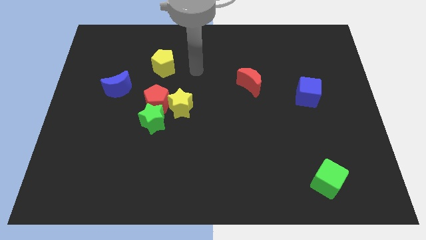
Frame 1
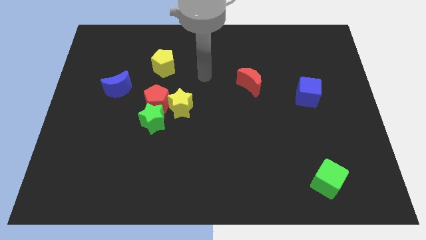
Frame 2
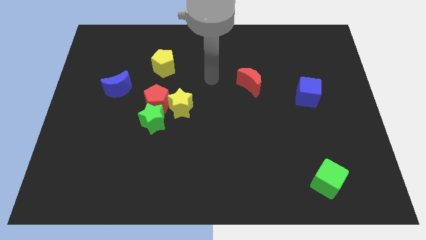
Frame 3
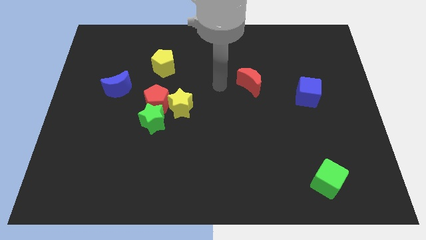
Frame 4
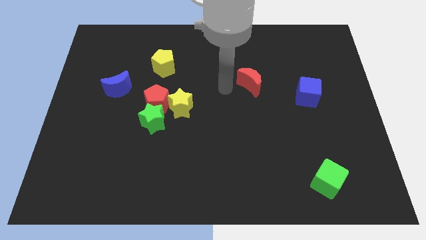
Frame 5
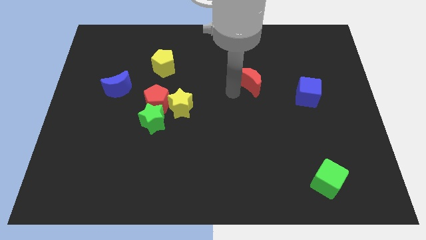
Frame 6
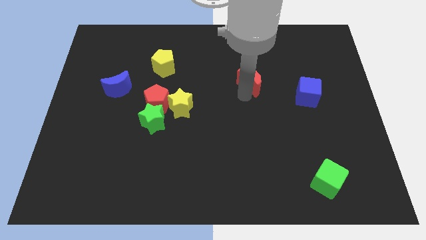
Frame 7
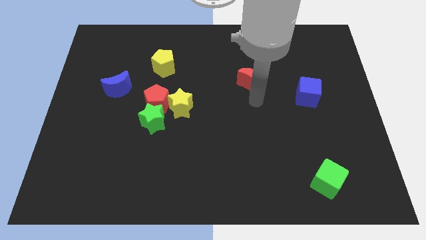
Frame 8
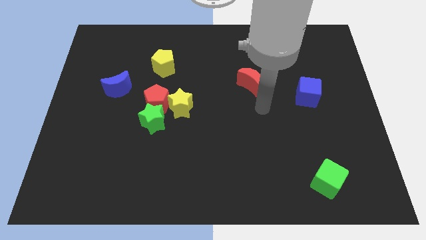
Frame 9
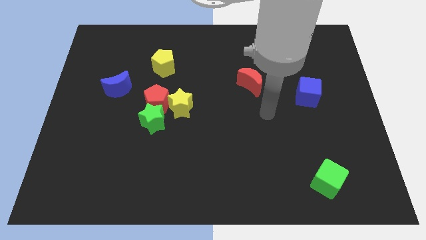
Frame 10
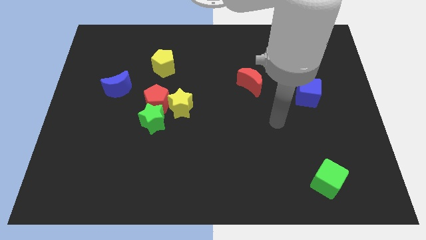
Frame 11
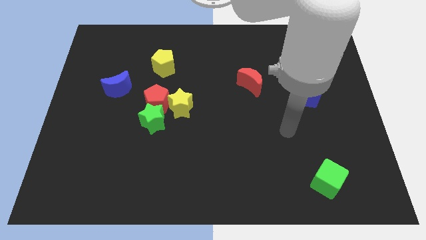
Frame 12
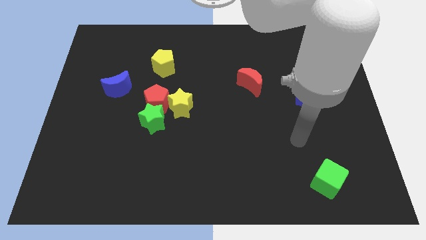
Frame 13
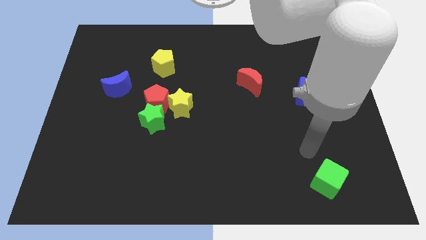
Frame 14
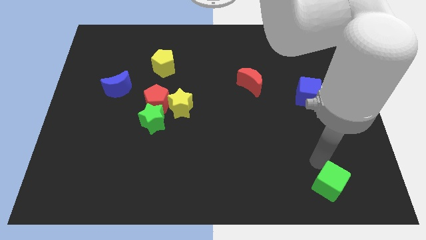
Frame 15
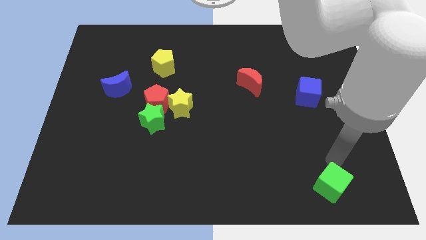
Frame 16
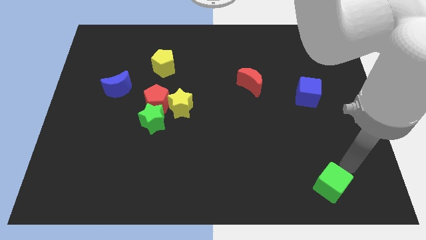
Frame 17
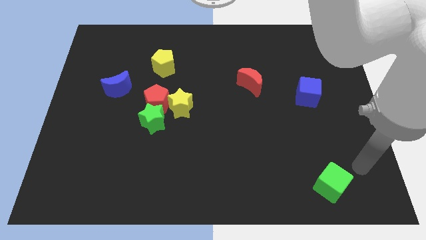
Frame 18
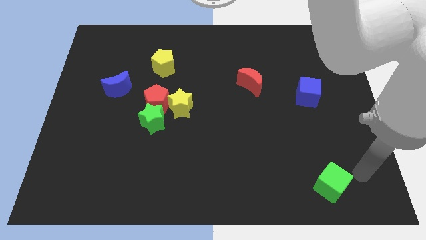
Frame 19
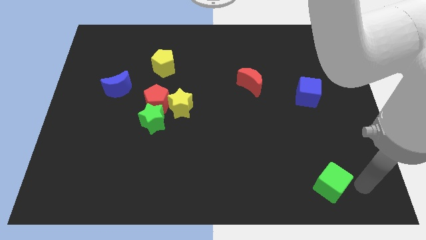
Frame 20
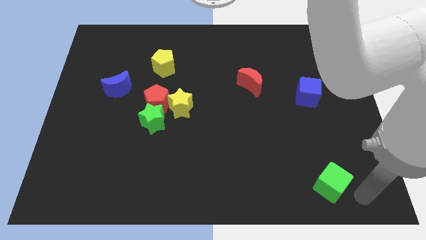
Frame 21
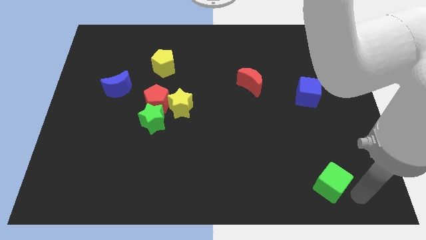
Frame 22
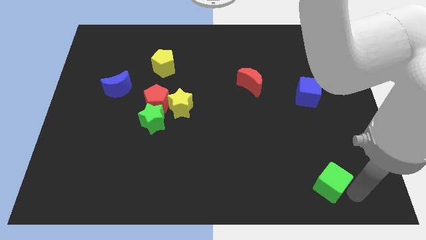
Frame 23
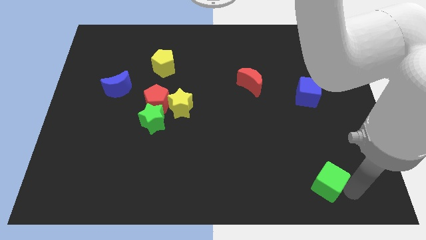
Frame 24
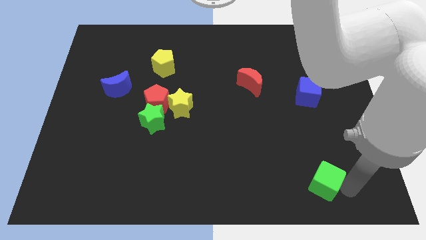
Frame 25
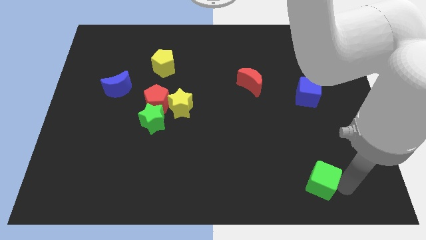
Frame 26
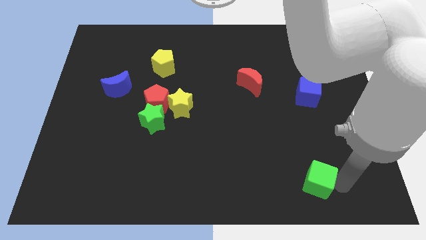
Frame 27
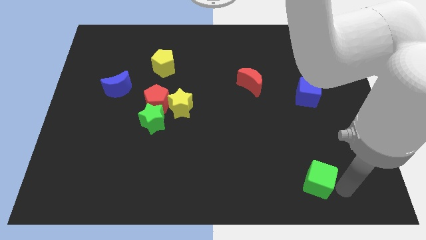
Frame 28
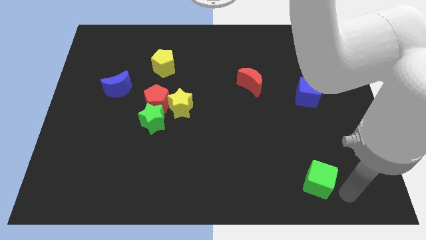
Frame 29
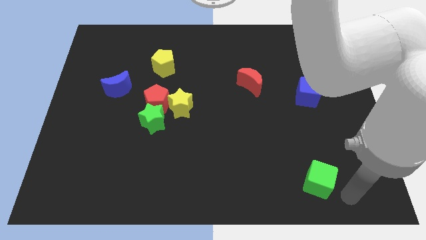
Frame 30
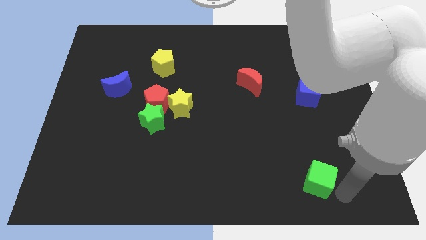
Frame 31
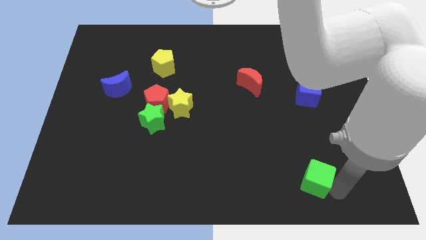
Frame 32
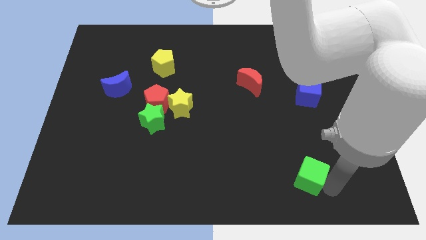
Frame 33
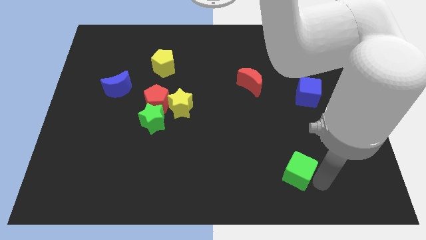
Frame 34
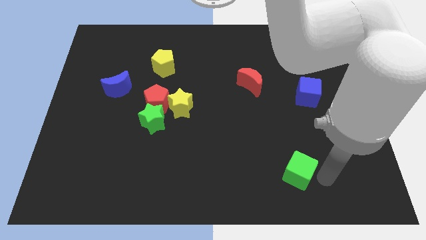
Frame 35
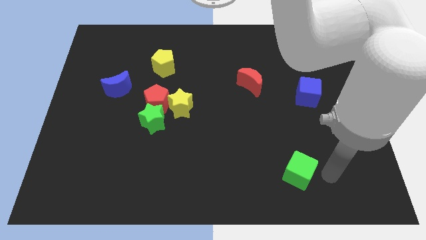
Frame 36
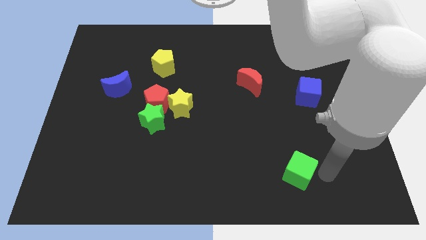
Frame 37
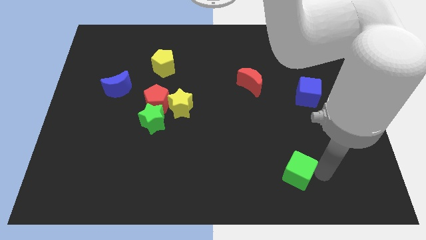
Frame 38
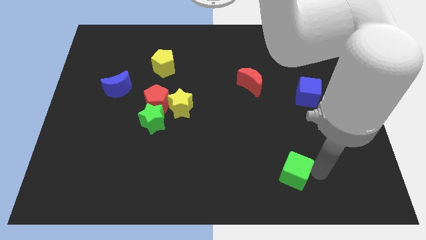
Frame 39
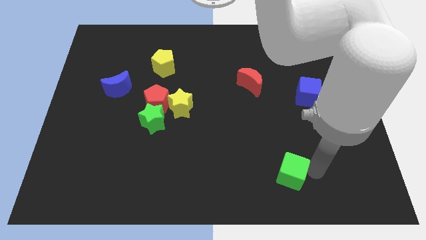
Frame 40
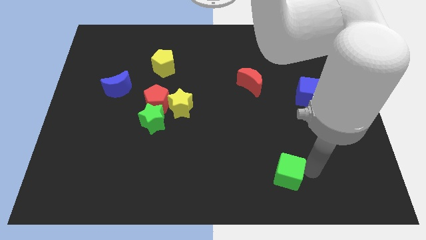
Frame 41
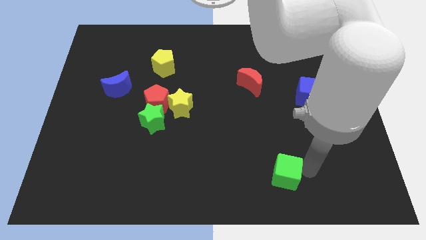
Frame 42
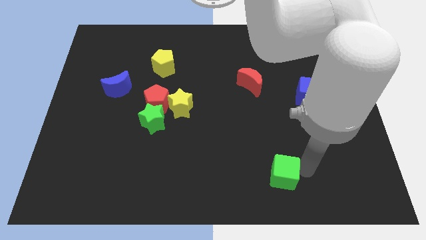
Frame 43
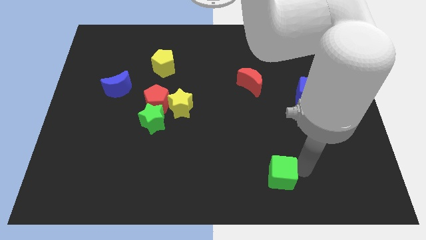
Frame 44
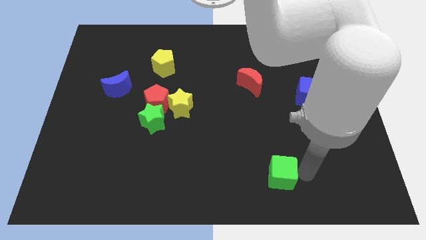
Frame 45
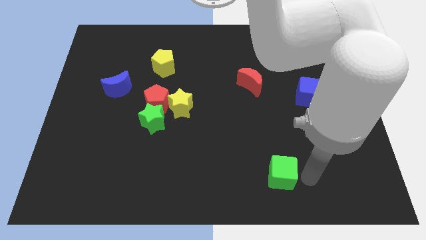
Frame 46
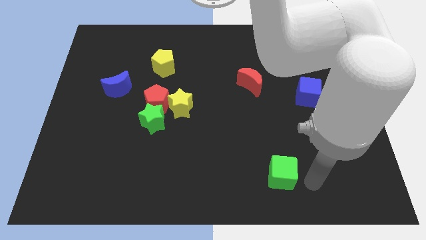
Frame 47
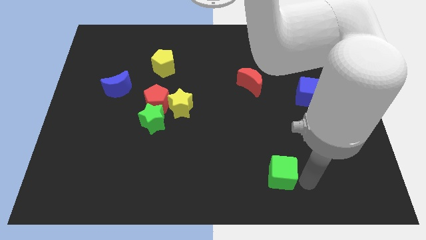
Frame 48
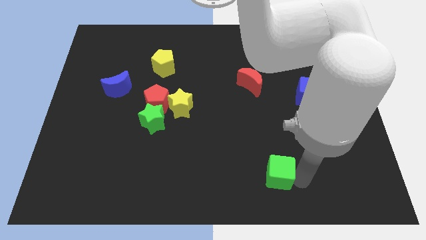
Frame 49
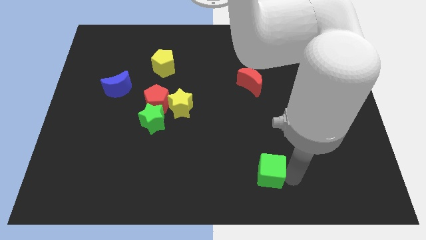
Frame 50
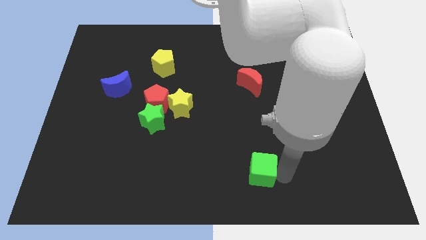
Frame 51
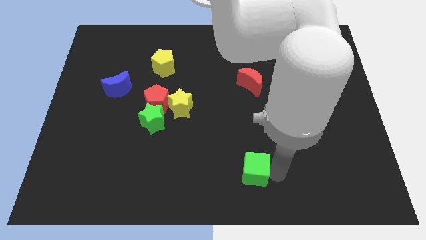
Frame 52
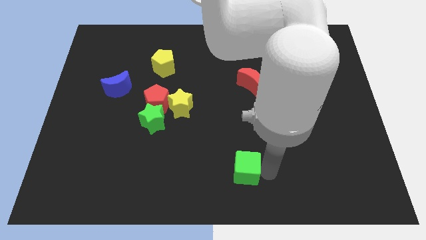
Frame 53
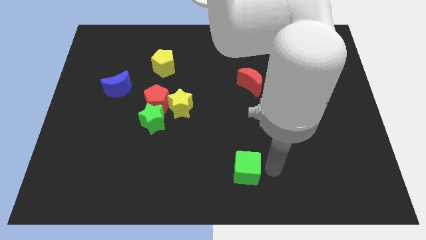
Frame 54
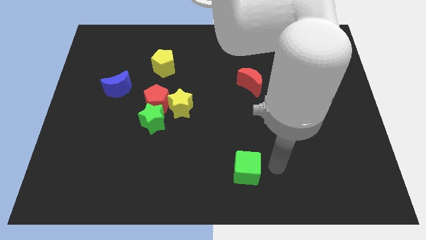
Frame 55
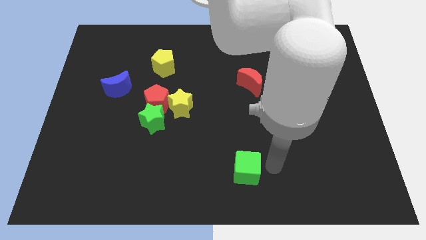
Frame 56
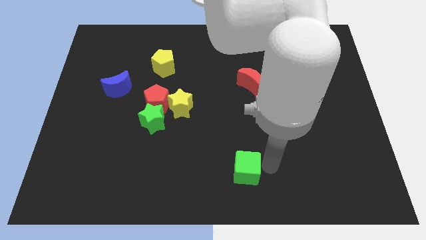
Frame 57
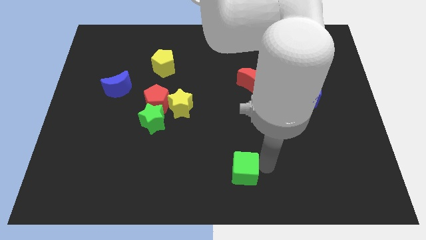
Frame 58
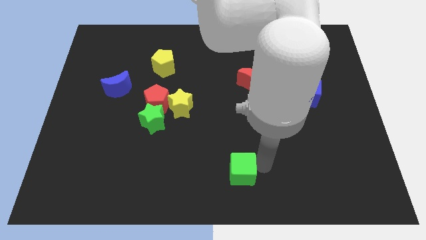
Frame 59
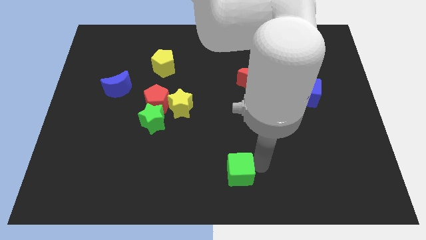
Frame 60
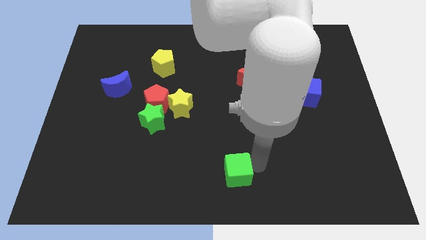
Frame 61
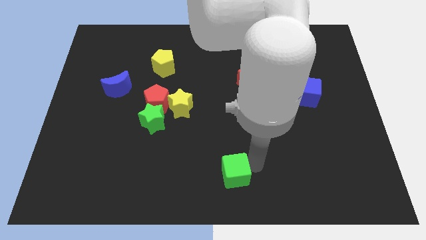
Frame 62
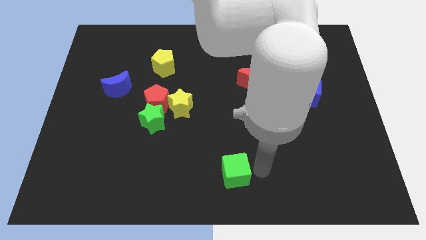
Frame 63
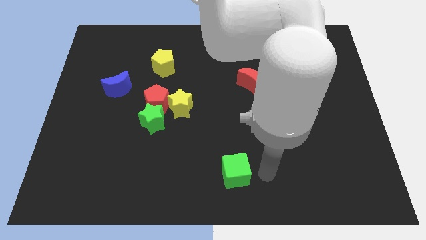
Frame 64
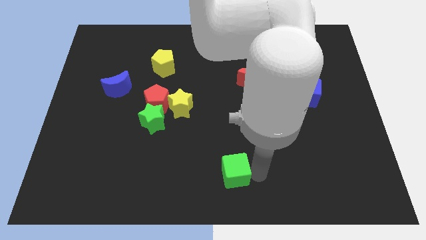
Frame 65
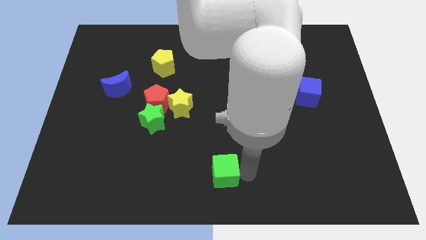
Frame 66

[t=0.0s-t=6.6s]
slide the green cube to the left

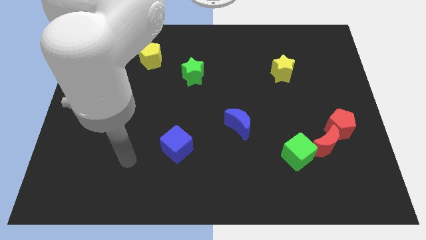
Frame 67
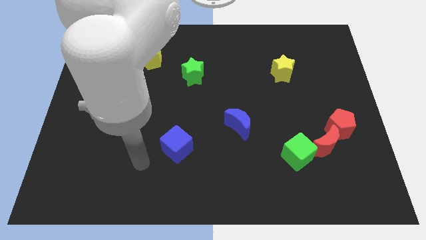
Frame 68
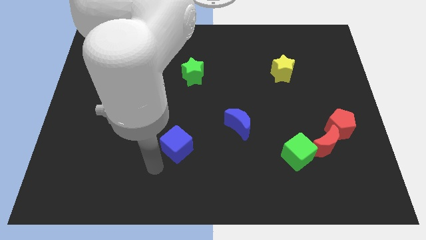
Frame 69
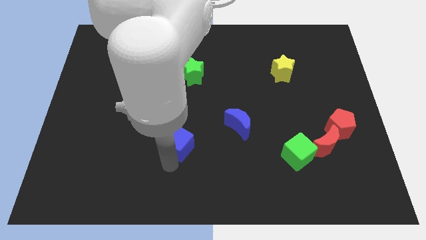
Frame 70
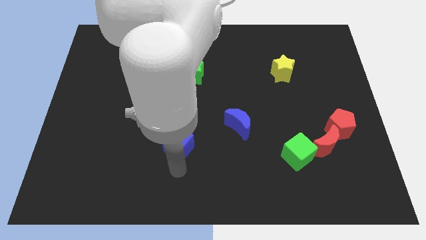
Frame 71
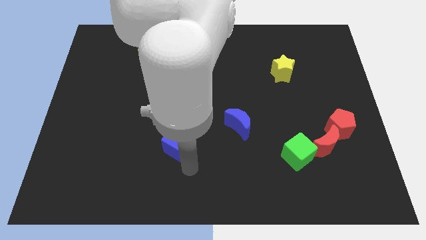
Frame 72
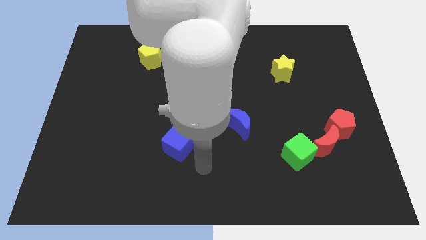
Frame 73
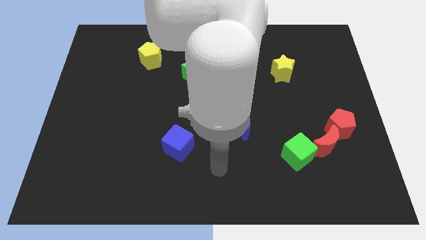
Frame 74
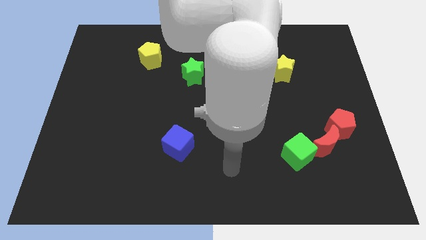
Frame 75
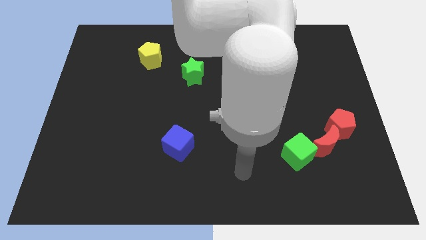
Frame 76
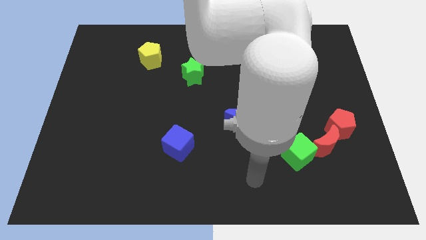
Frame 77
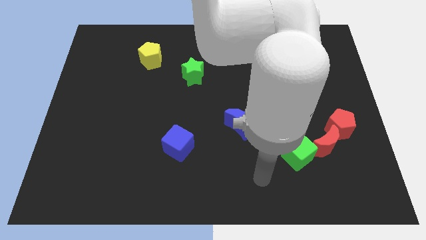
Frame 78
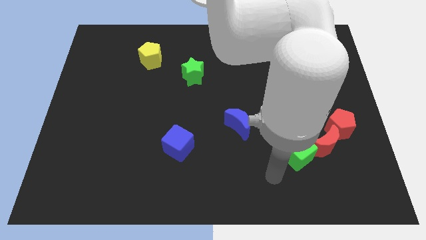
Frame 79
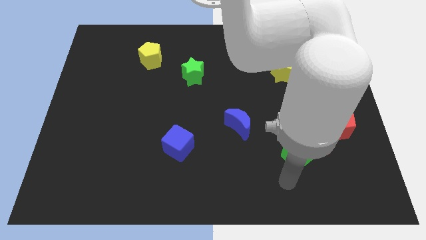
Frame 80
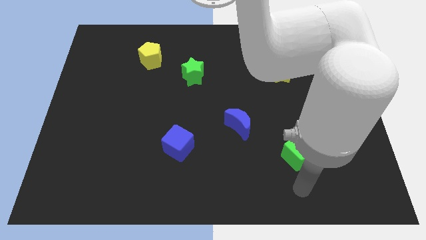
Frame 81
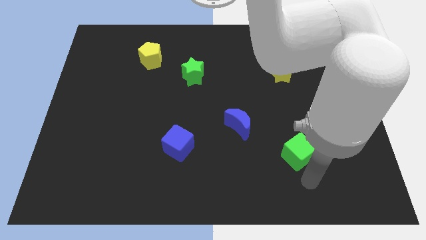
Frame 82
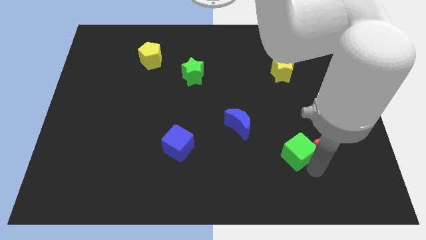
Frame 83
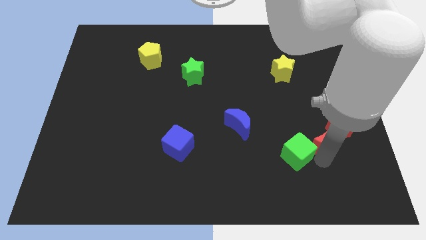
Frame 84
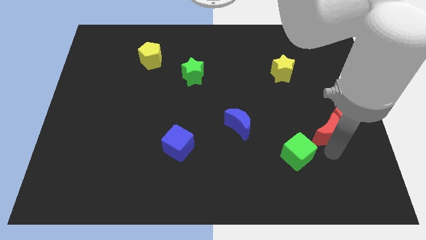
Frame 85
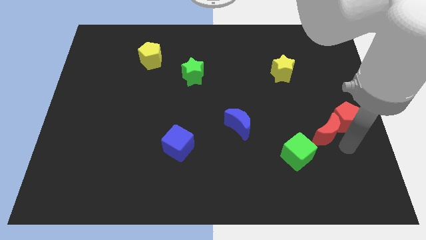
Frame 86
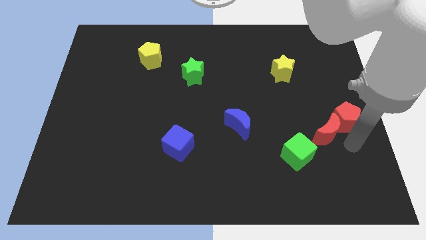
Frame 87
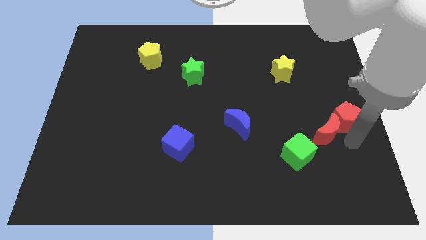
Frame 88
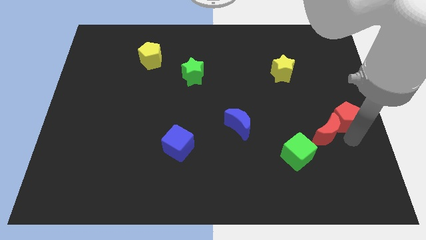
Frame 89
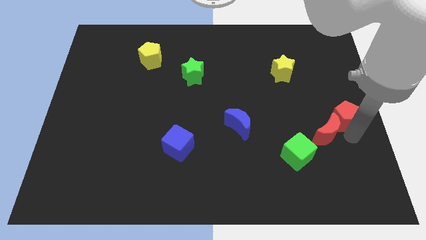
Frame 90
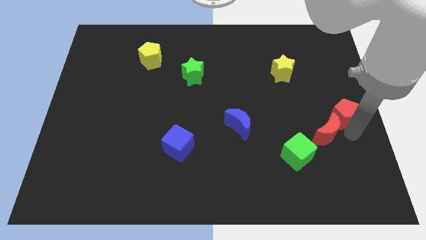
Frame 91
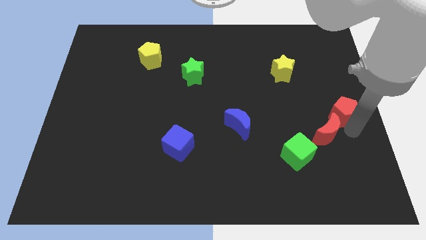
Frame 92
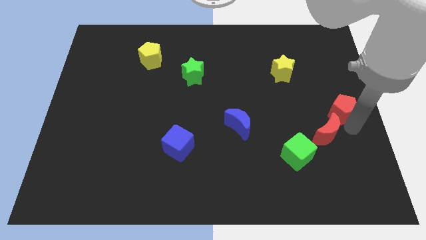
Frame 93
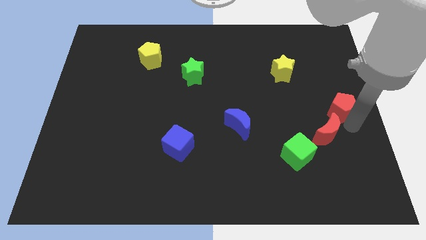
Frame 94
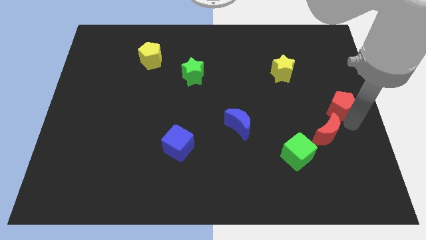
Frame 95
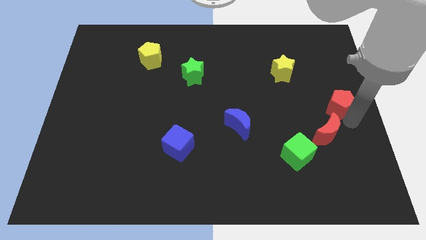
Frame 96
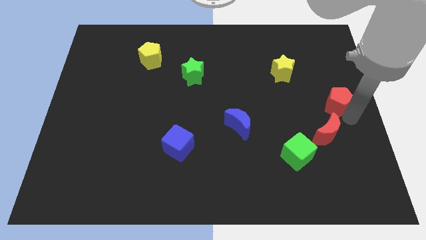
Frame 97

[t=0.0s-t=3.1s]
push the red pentagon up somewhat
